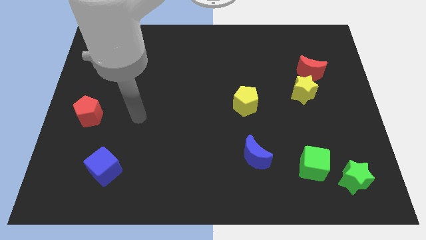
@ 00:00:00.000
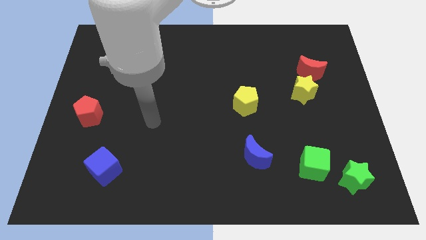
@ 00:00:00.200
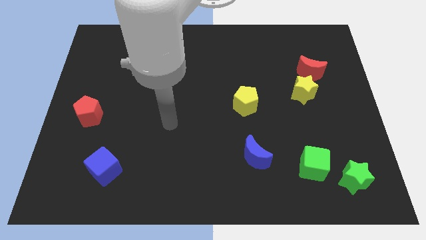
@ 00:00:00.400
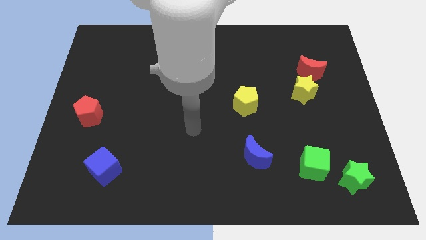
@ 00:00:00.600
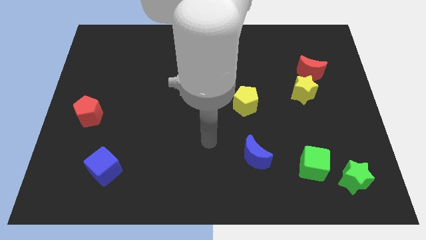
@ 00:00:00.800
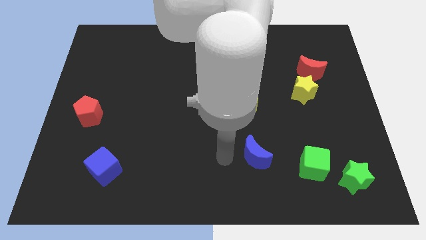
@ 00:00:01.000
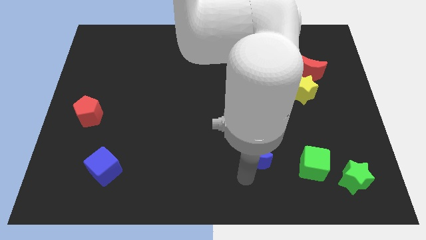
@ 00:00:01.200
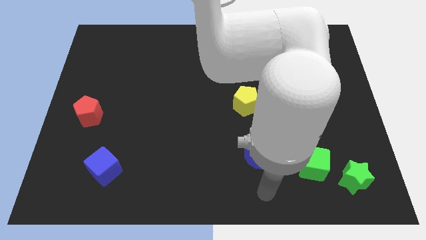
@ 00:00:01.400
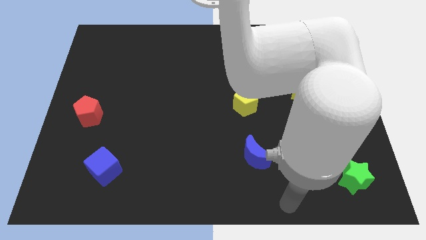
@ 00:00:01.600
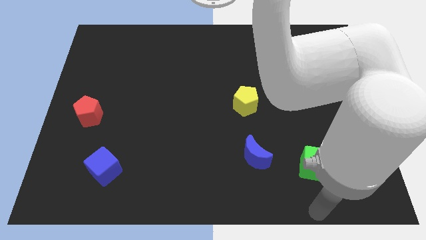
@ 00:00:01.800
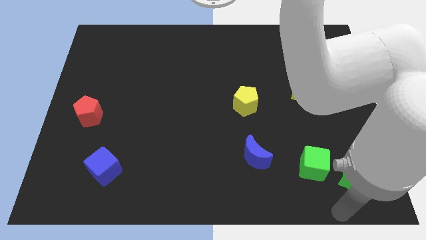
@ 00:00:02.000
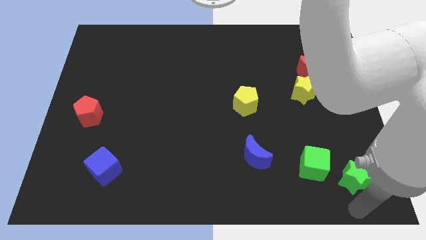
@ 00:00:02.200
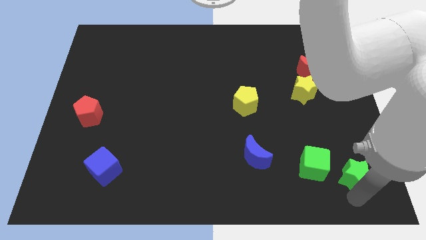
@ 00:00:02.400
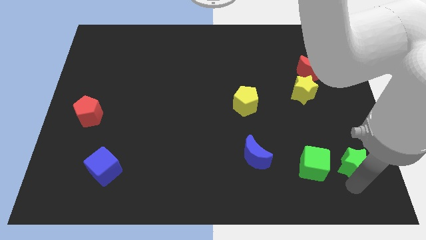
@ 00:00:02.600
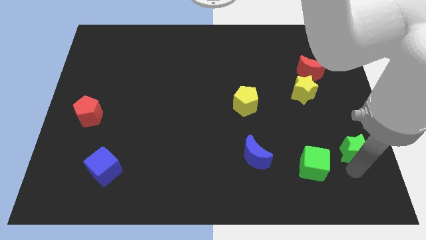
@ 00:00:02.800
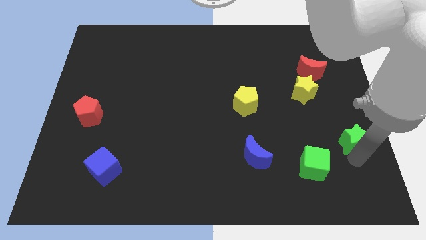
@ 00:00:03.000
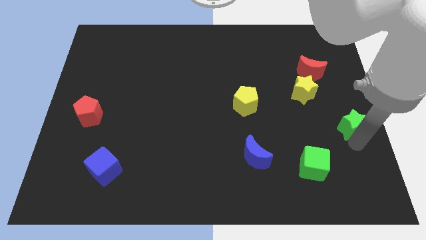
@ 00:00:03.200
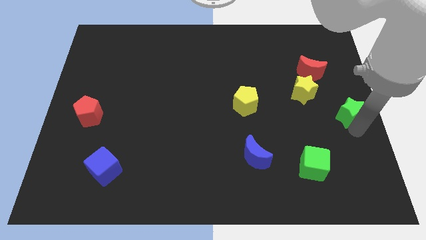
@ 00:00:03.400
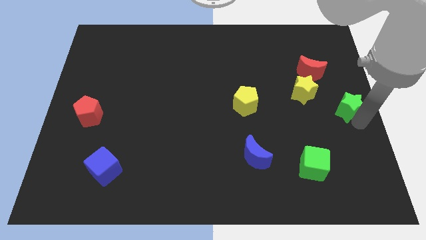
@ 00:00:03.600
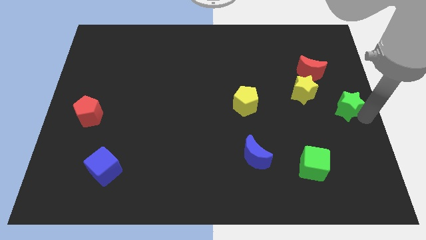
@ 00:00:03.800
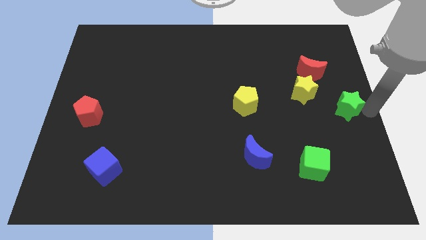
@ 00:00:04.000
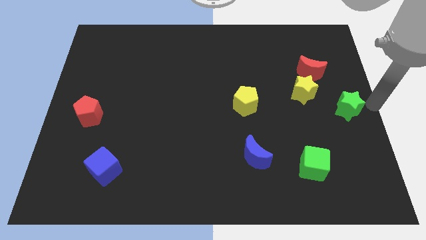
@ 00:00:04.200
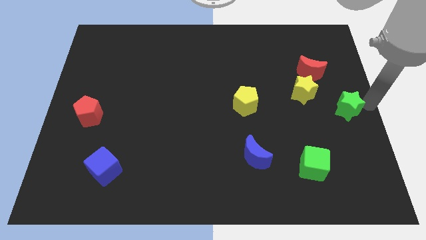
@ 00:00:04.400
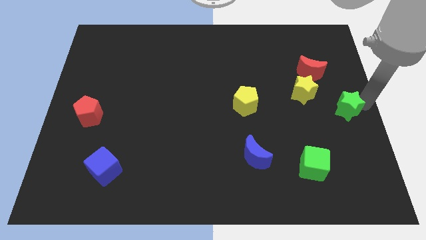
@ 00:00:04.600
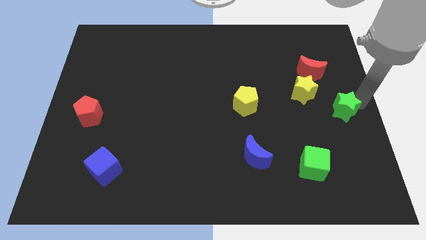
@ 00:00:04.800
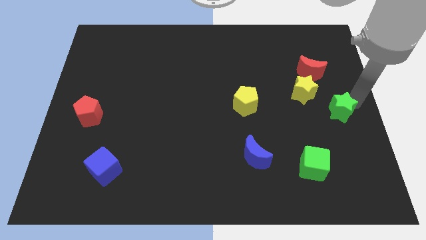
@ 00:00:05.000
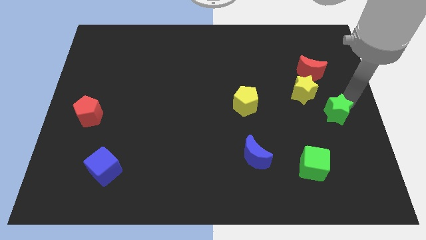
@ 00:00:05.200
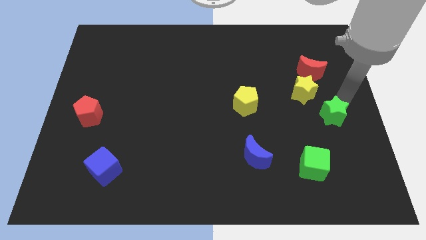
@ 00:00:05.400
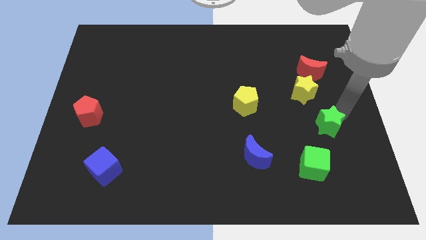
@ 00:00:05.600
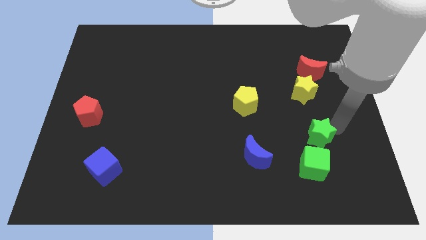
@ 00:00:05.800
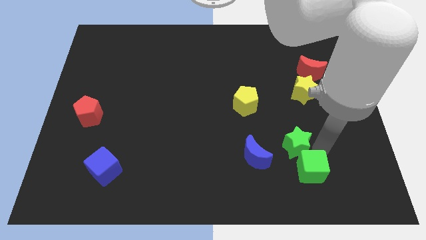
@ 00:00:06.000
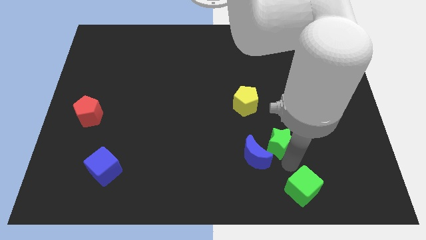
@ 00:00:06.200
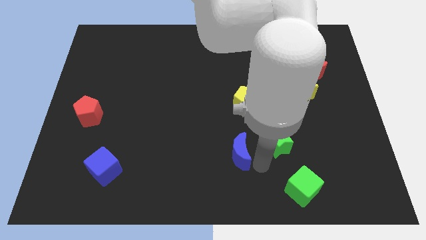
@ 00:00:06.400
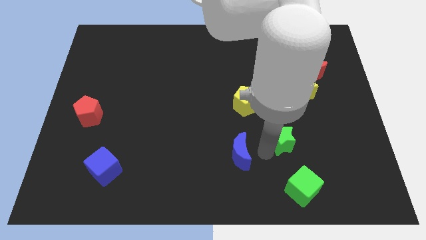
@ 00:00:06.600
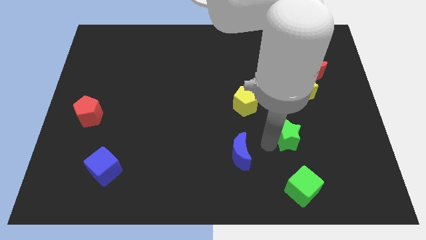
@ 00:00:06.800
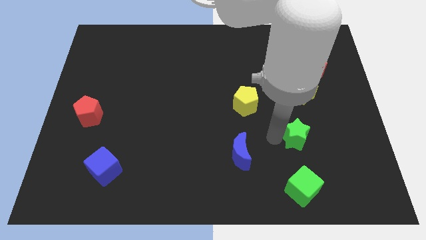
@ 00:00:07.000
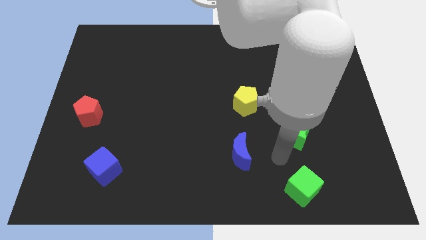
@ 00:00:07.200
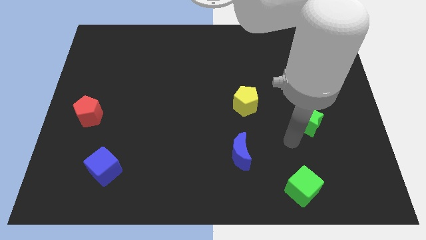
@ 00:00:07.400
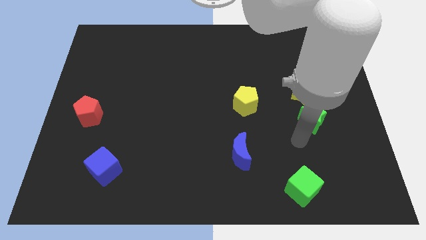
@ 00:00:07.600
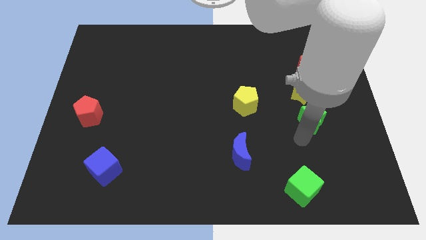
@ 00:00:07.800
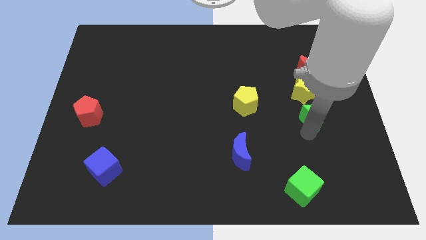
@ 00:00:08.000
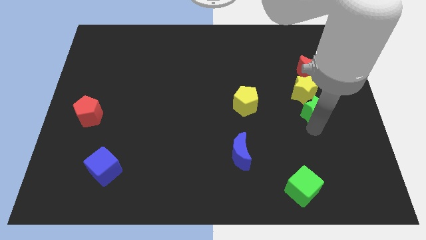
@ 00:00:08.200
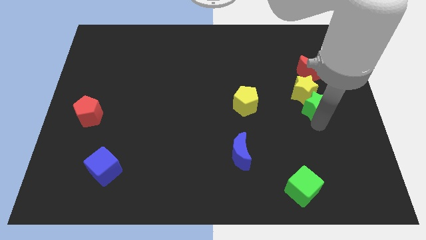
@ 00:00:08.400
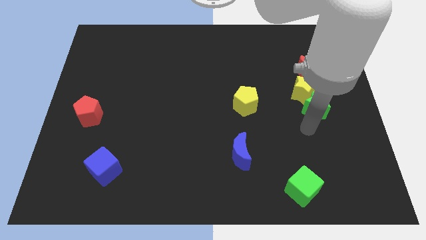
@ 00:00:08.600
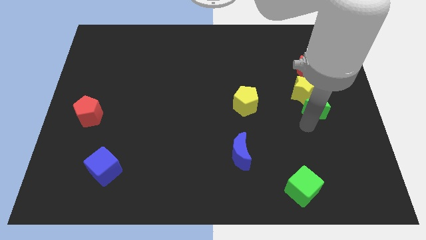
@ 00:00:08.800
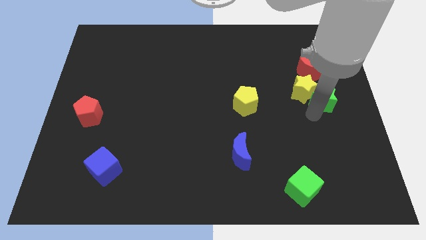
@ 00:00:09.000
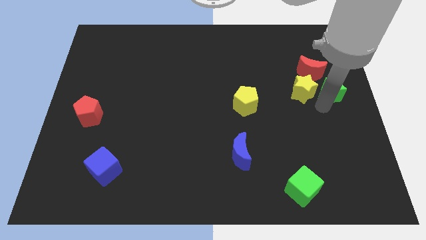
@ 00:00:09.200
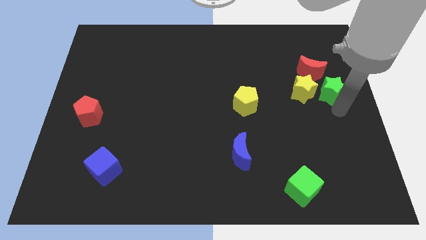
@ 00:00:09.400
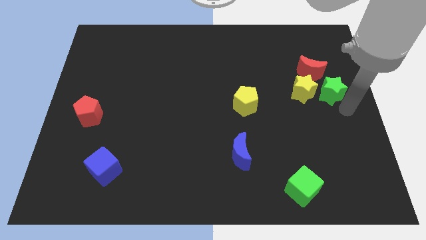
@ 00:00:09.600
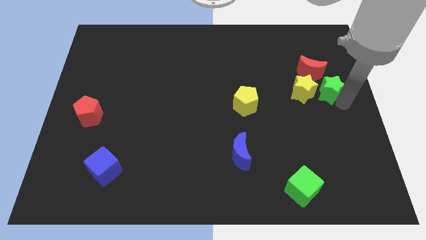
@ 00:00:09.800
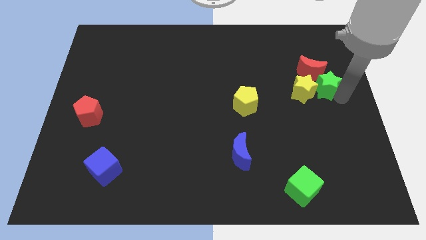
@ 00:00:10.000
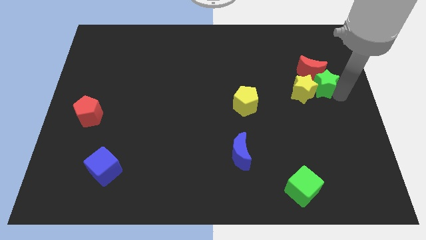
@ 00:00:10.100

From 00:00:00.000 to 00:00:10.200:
move the green star next to the red moon

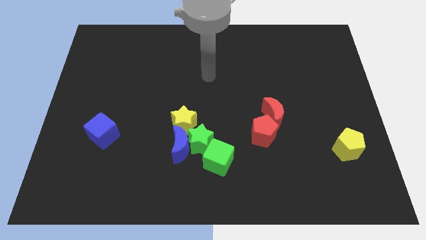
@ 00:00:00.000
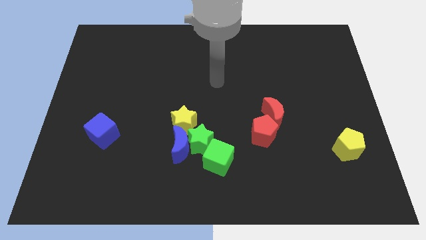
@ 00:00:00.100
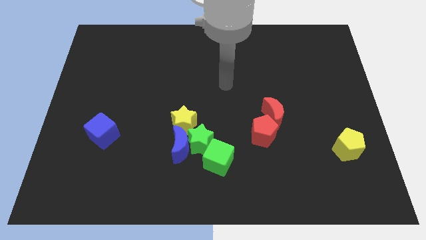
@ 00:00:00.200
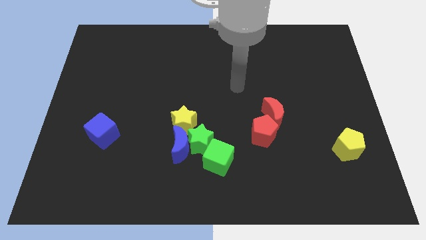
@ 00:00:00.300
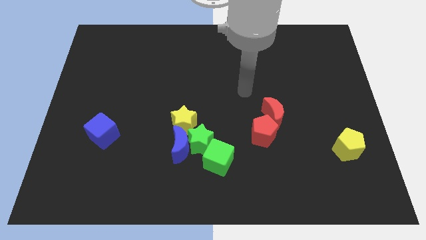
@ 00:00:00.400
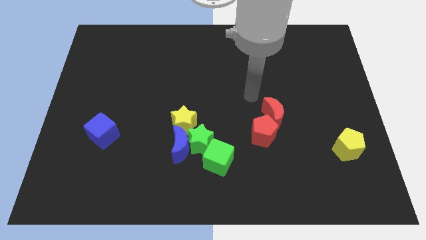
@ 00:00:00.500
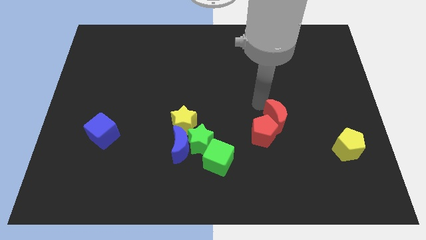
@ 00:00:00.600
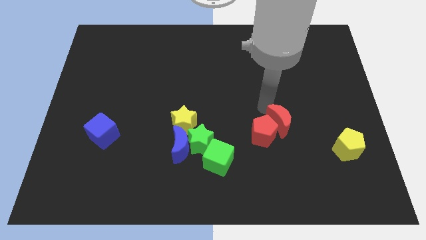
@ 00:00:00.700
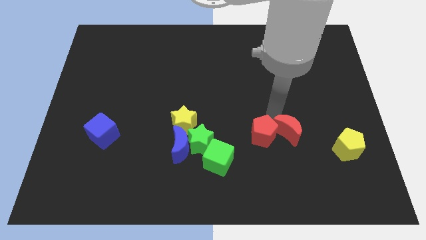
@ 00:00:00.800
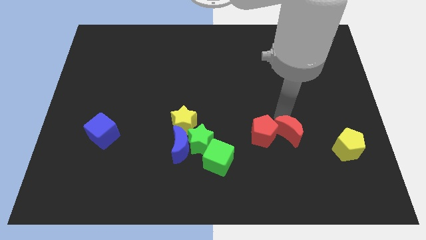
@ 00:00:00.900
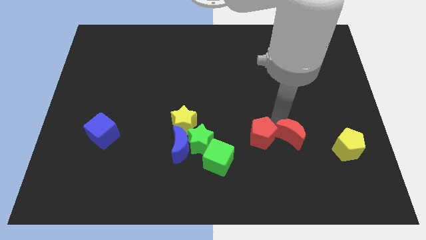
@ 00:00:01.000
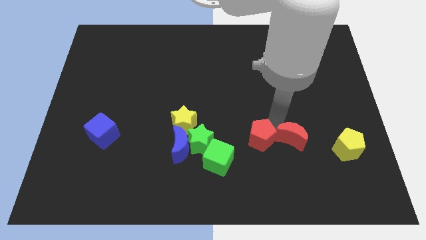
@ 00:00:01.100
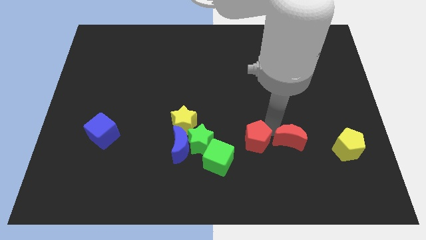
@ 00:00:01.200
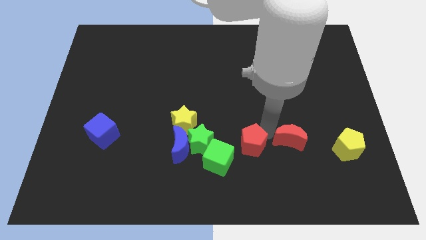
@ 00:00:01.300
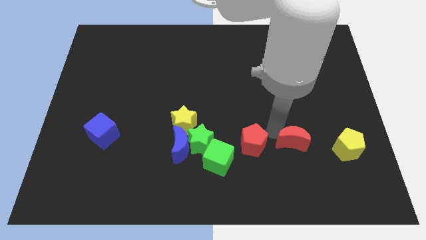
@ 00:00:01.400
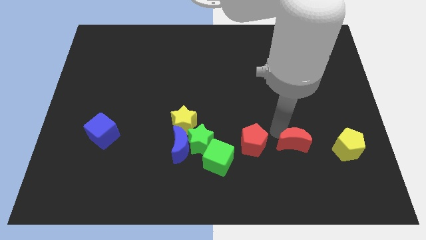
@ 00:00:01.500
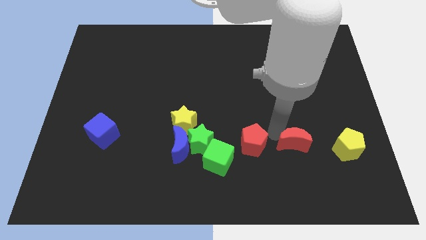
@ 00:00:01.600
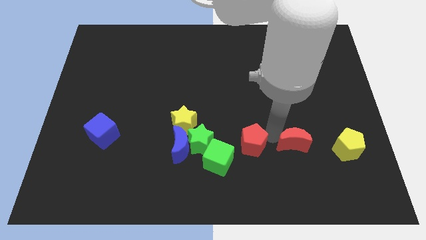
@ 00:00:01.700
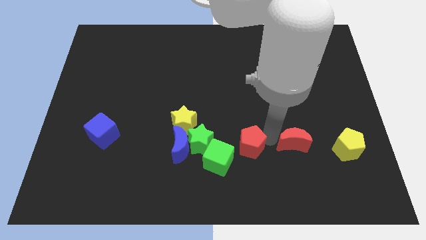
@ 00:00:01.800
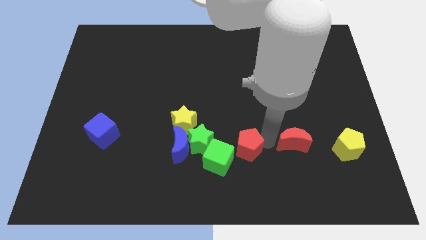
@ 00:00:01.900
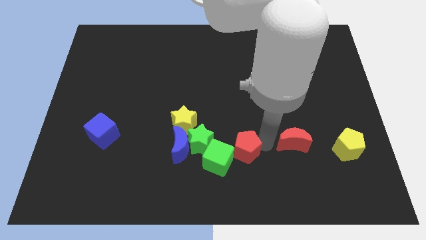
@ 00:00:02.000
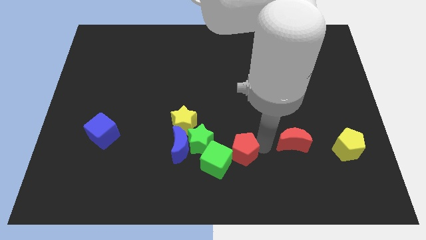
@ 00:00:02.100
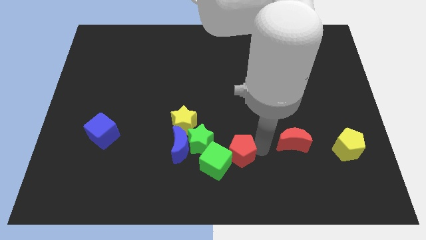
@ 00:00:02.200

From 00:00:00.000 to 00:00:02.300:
put the red pentagon towards the green cube
